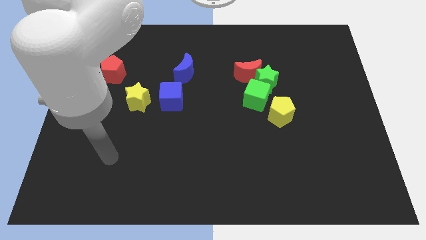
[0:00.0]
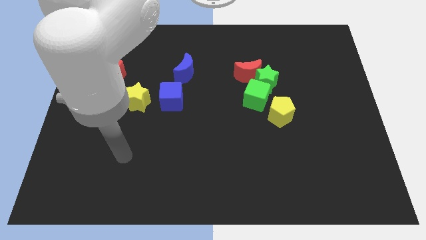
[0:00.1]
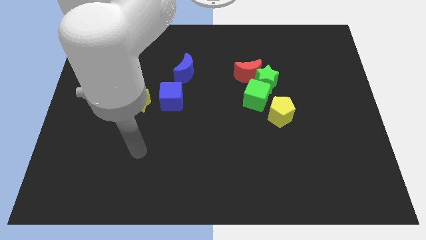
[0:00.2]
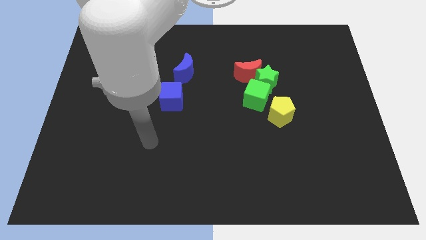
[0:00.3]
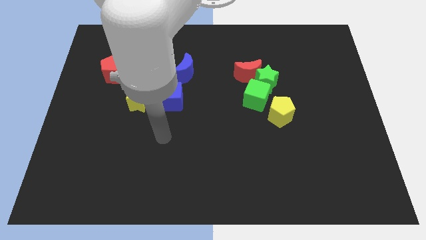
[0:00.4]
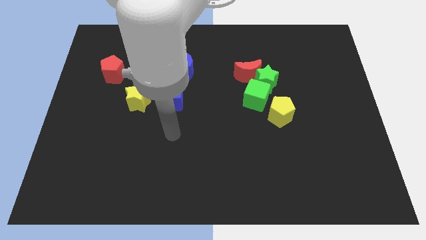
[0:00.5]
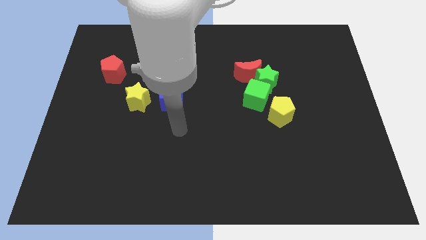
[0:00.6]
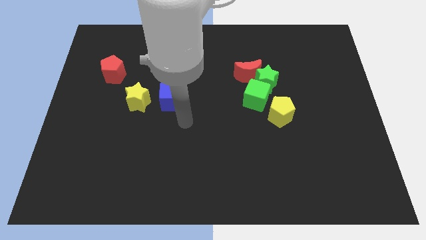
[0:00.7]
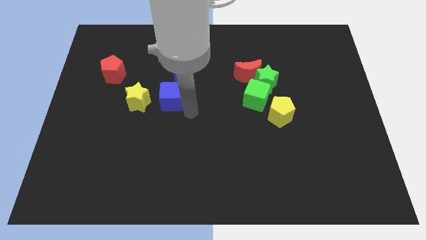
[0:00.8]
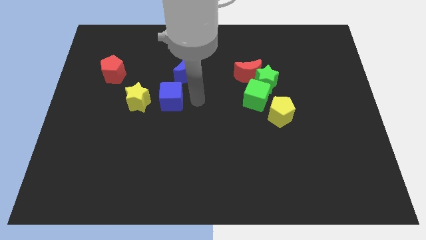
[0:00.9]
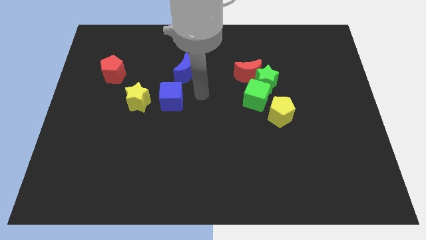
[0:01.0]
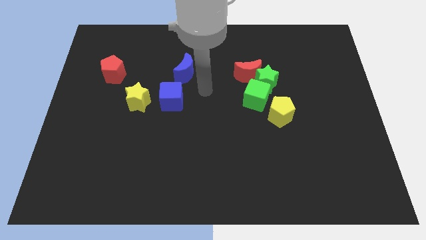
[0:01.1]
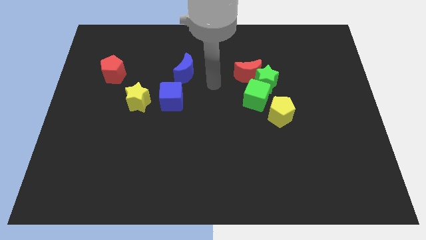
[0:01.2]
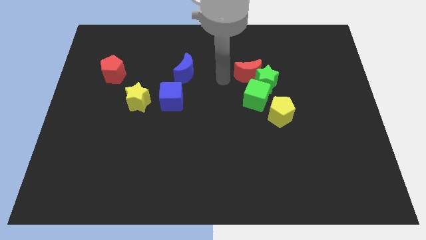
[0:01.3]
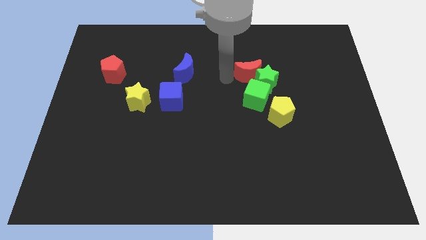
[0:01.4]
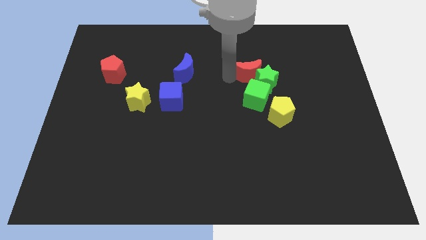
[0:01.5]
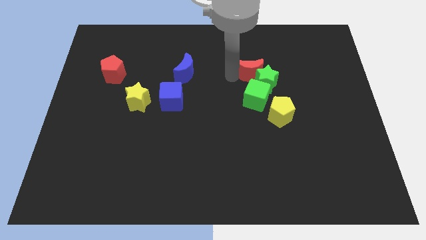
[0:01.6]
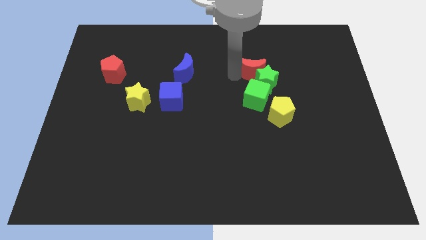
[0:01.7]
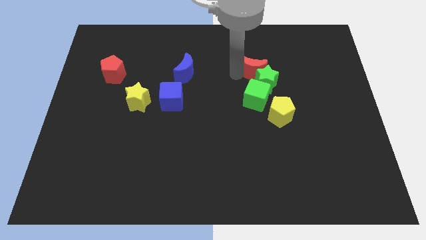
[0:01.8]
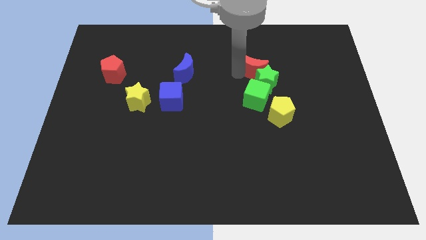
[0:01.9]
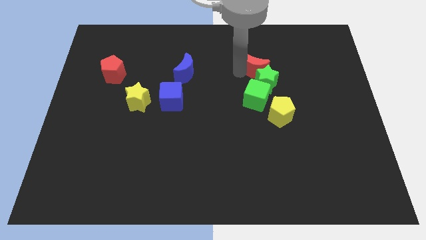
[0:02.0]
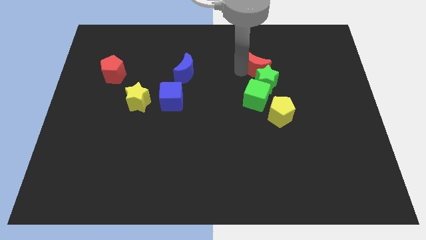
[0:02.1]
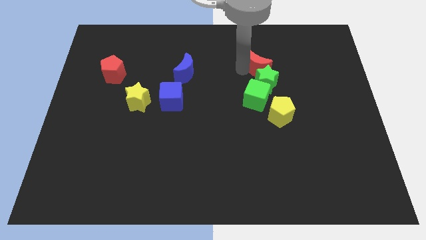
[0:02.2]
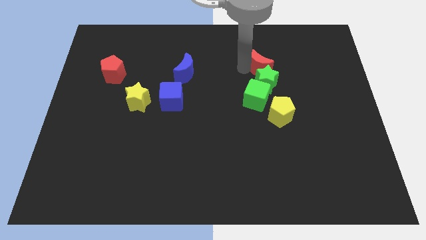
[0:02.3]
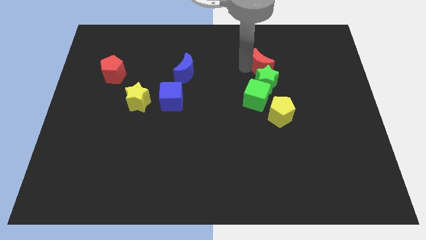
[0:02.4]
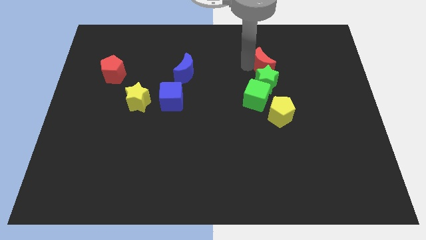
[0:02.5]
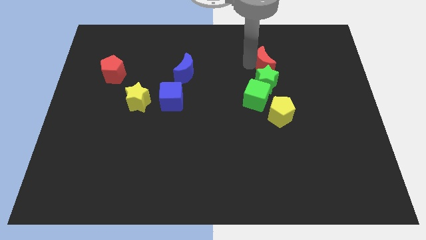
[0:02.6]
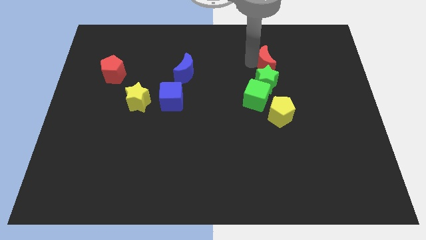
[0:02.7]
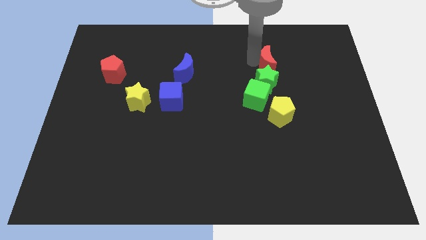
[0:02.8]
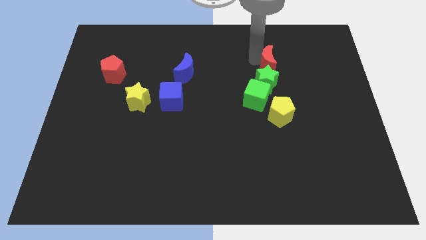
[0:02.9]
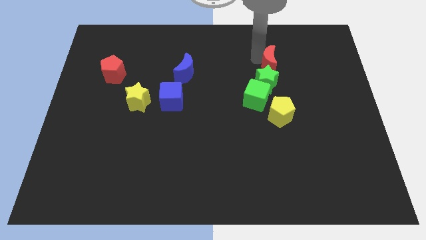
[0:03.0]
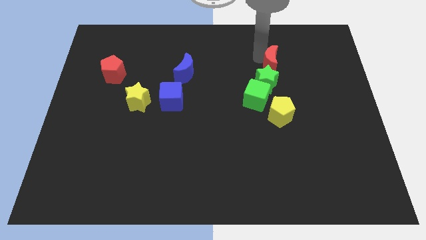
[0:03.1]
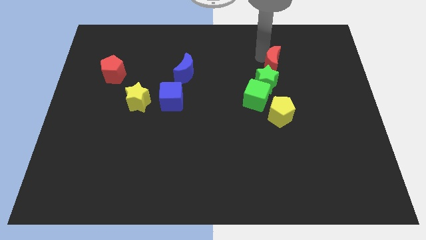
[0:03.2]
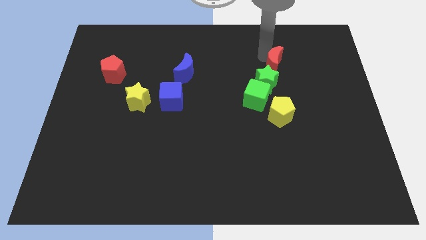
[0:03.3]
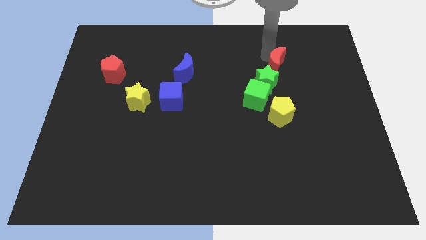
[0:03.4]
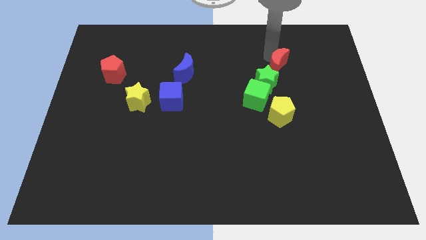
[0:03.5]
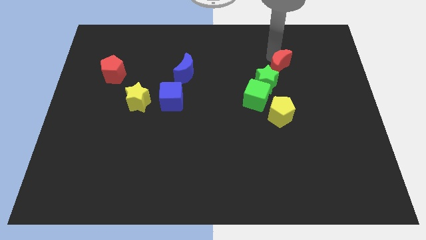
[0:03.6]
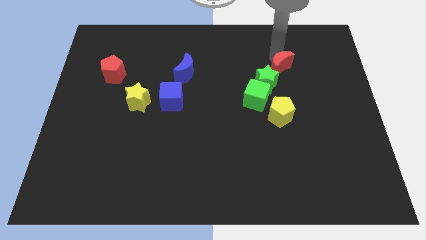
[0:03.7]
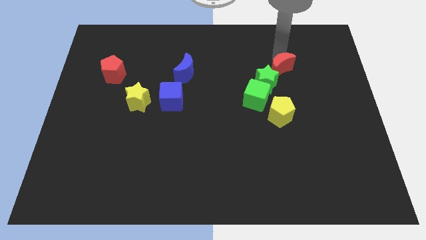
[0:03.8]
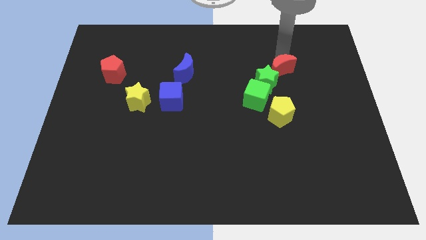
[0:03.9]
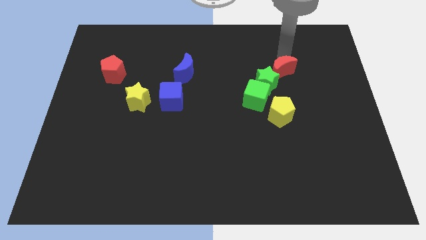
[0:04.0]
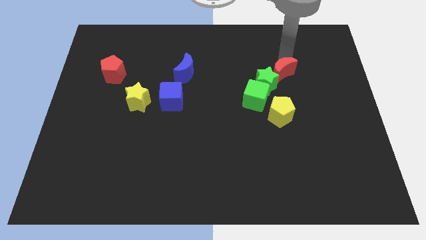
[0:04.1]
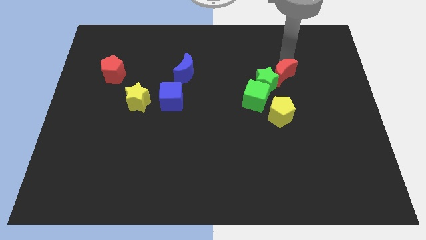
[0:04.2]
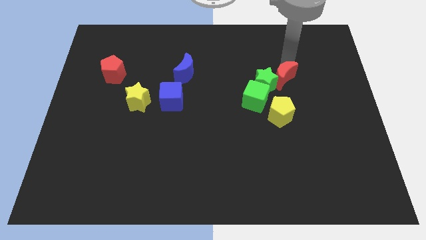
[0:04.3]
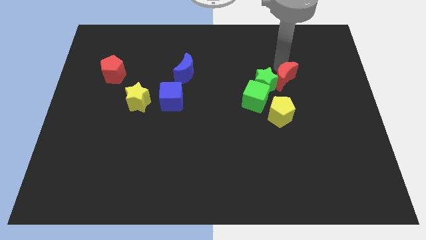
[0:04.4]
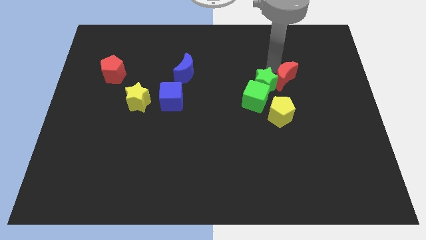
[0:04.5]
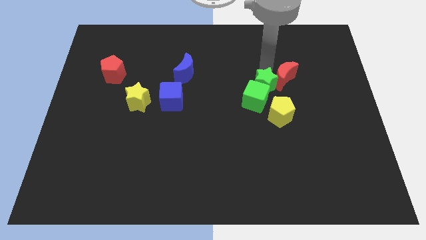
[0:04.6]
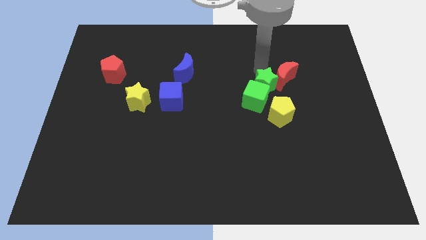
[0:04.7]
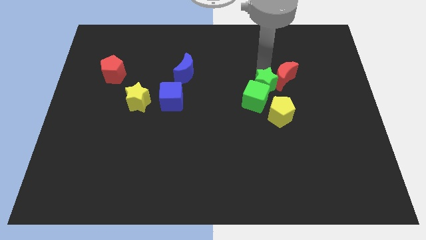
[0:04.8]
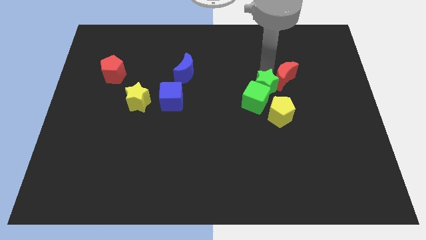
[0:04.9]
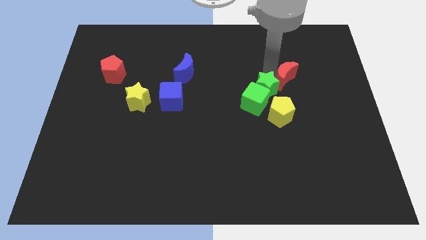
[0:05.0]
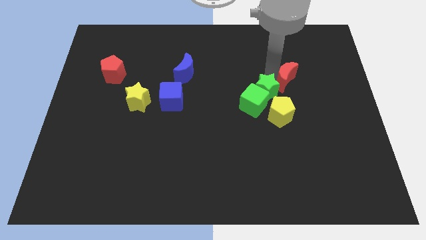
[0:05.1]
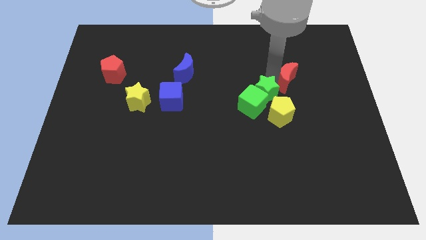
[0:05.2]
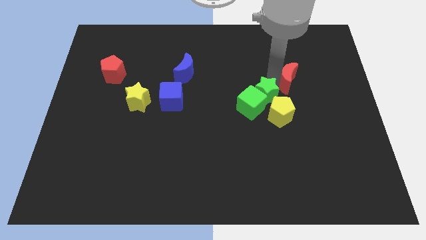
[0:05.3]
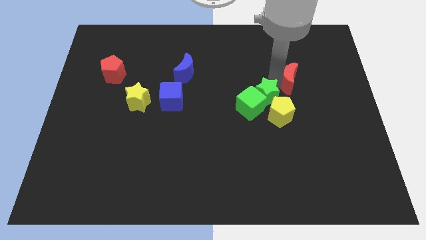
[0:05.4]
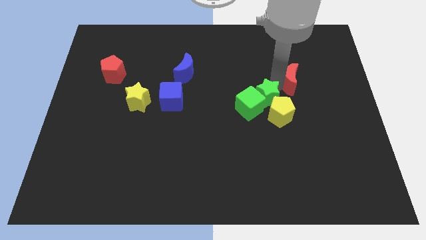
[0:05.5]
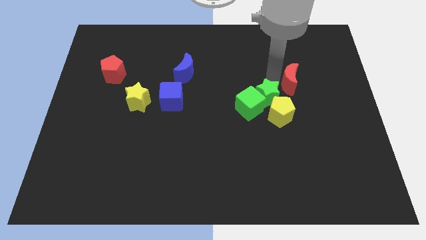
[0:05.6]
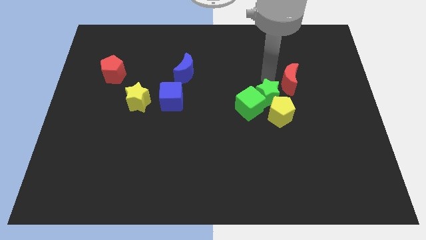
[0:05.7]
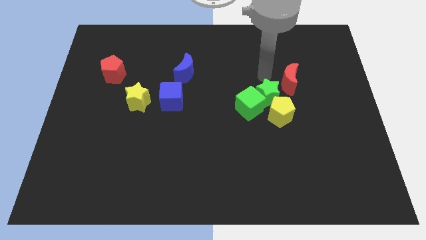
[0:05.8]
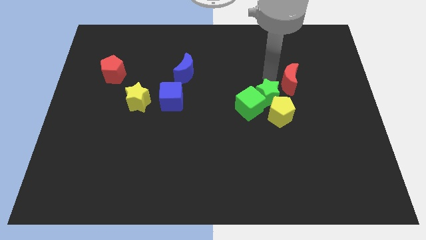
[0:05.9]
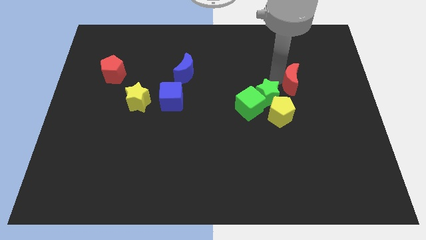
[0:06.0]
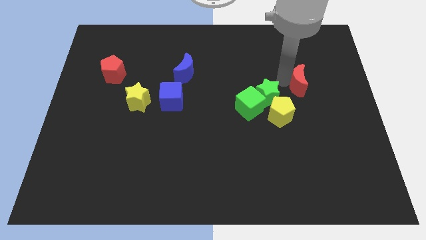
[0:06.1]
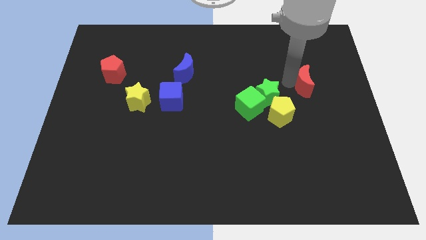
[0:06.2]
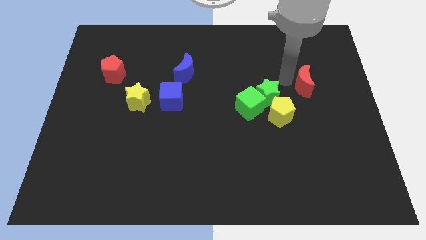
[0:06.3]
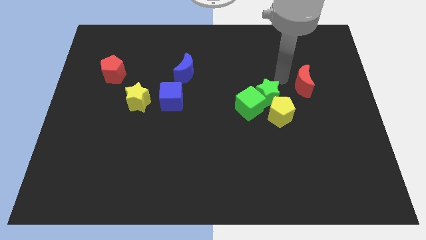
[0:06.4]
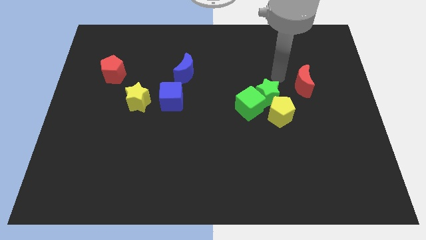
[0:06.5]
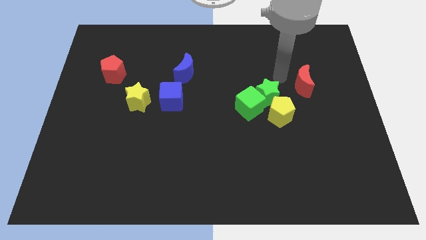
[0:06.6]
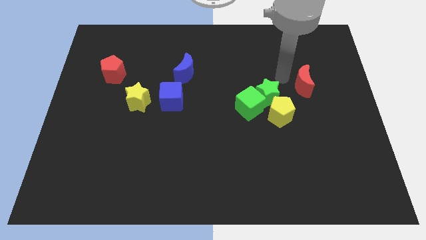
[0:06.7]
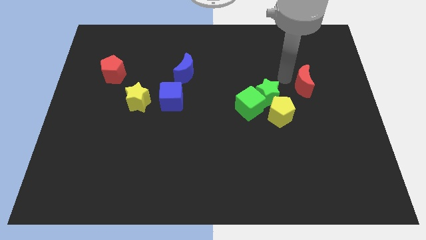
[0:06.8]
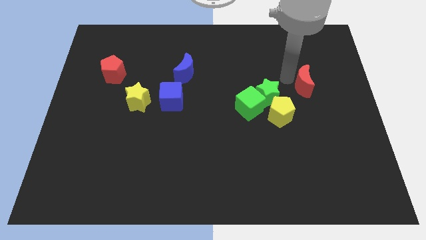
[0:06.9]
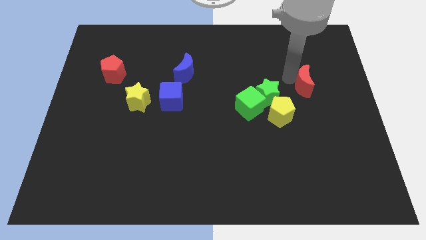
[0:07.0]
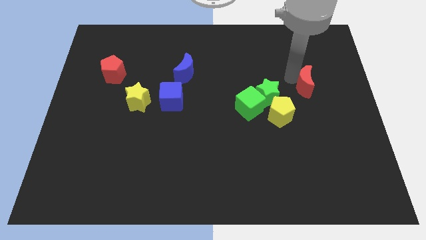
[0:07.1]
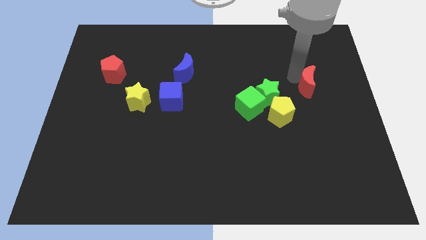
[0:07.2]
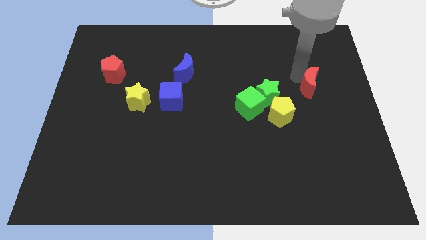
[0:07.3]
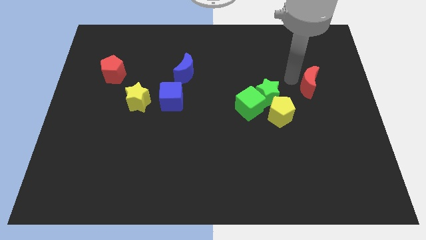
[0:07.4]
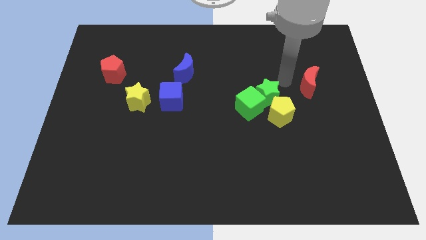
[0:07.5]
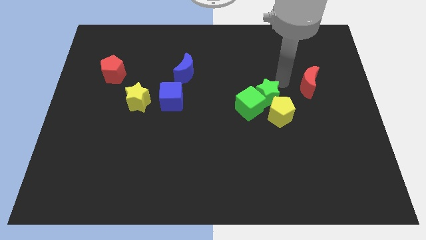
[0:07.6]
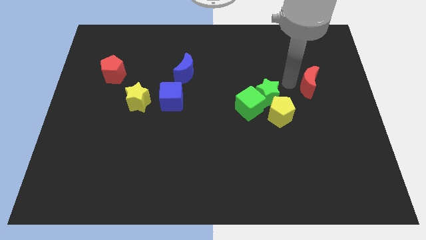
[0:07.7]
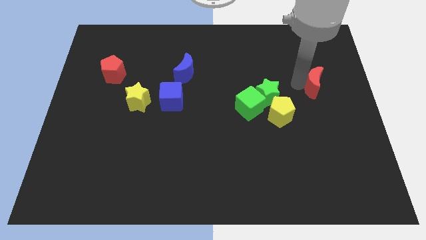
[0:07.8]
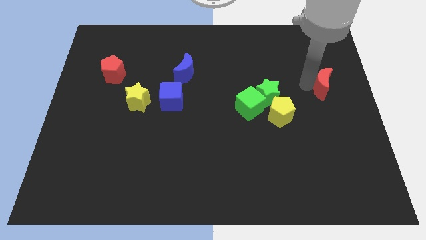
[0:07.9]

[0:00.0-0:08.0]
put the red moon to the right side
